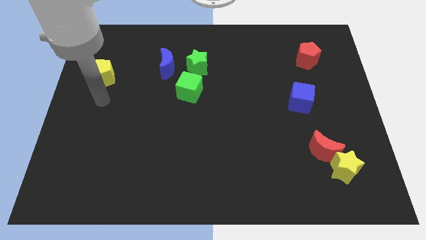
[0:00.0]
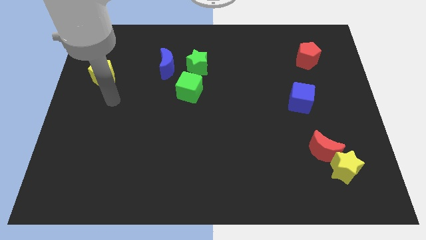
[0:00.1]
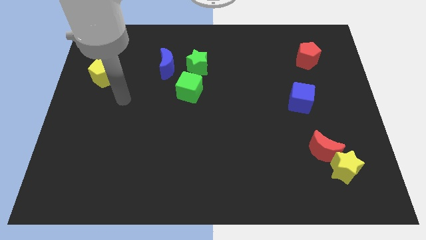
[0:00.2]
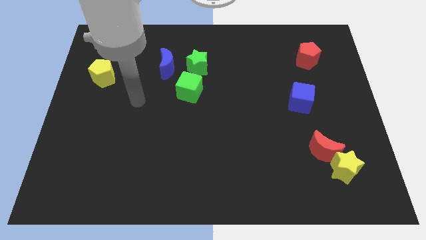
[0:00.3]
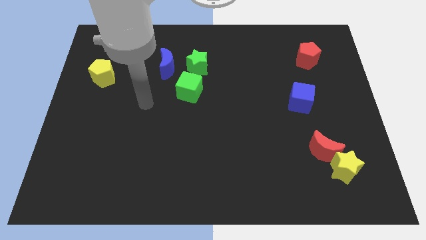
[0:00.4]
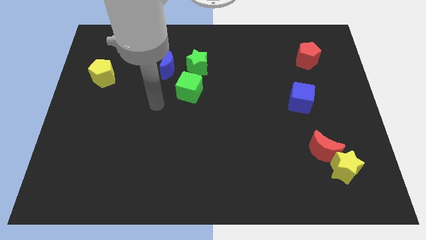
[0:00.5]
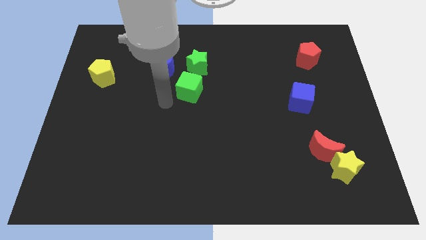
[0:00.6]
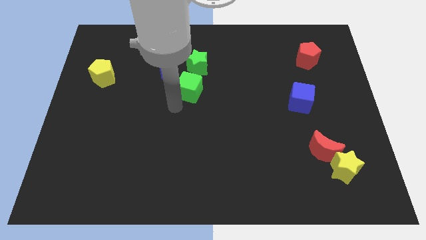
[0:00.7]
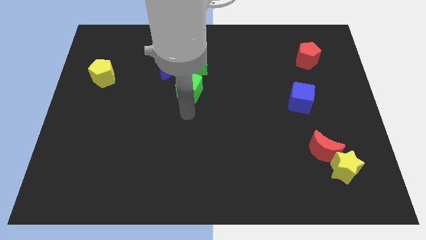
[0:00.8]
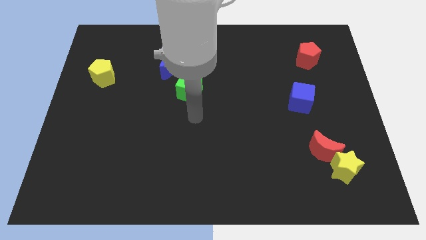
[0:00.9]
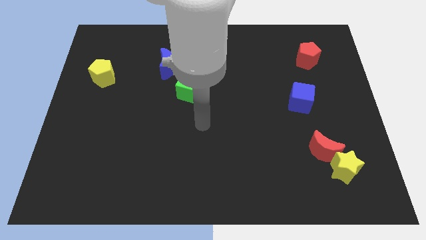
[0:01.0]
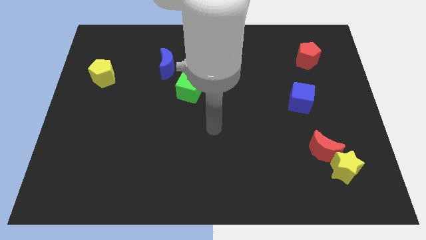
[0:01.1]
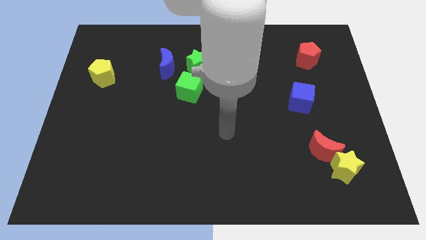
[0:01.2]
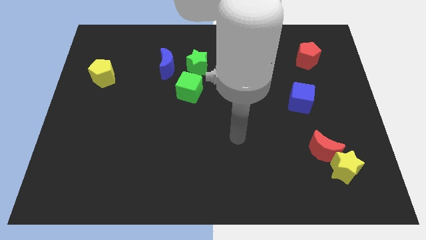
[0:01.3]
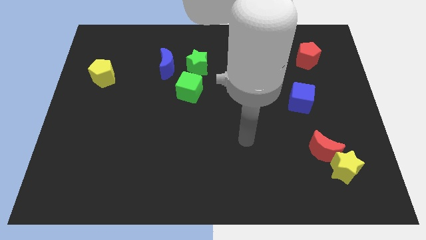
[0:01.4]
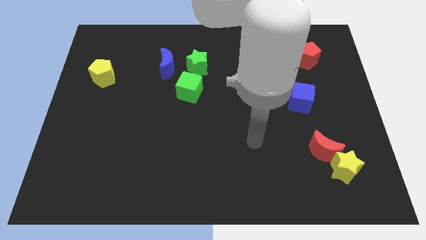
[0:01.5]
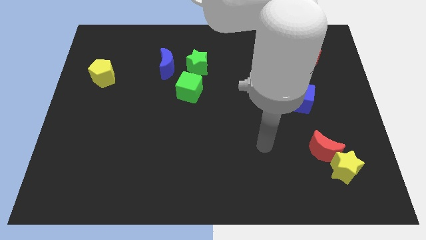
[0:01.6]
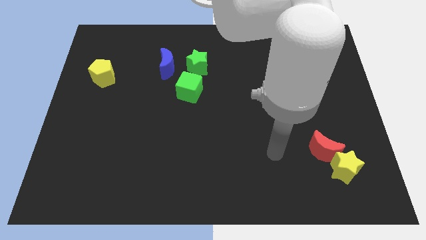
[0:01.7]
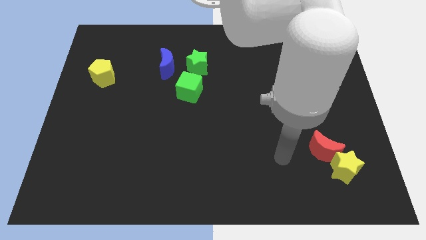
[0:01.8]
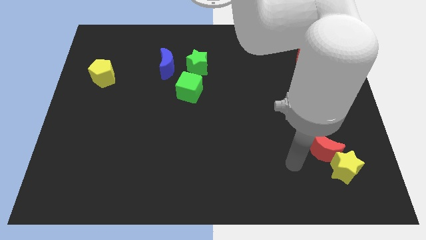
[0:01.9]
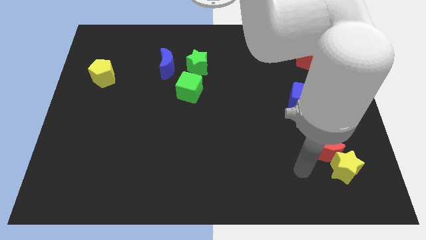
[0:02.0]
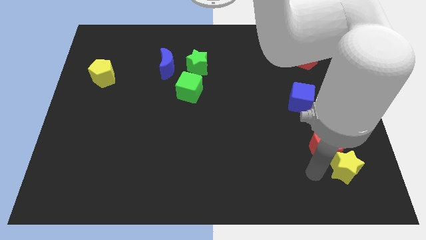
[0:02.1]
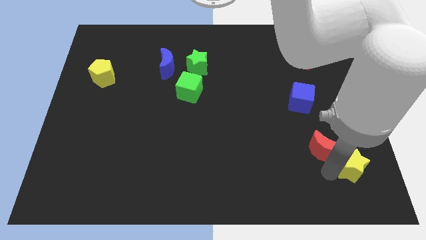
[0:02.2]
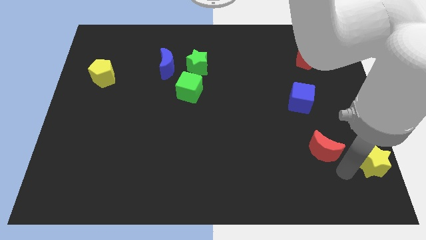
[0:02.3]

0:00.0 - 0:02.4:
pull the red moon apart from the yellow star

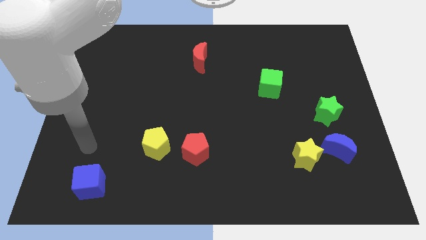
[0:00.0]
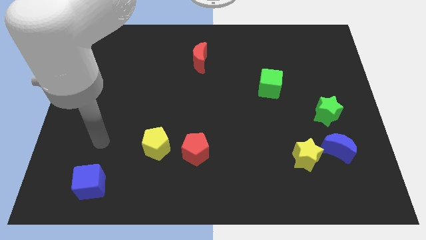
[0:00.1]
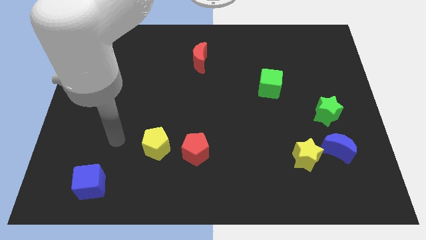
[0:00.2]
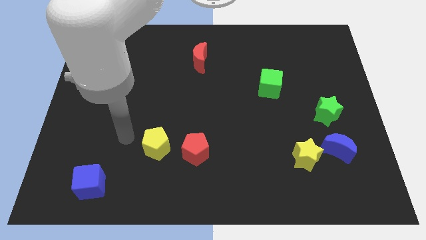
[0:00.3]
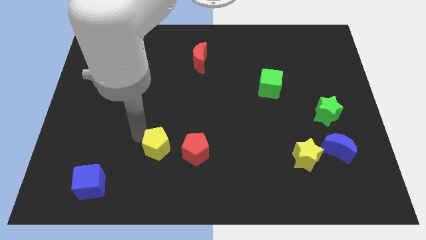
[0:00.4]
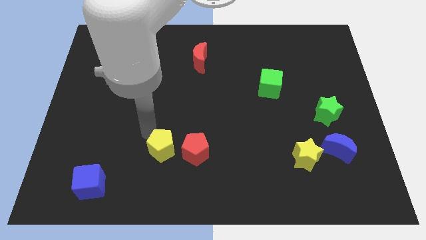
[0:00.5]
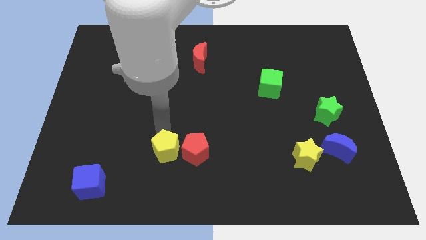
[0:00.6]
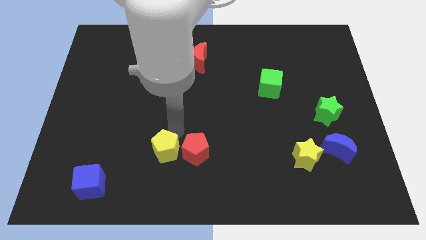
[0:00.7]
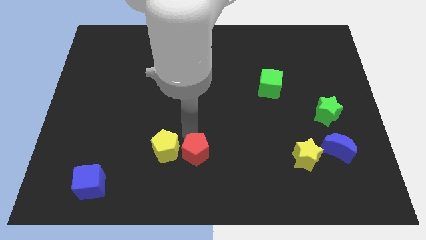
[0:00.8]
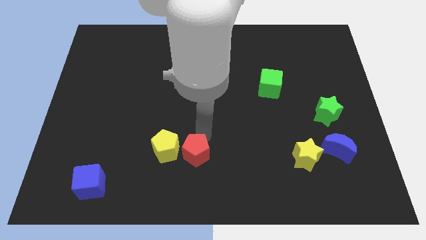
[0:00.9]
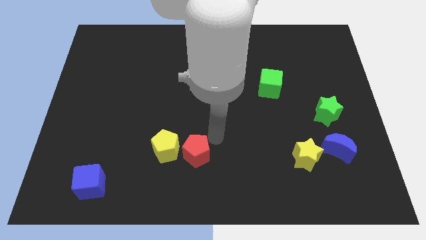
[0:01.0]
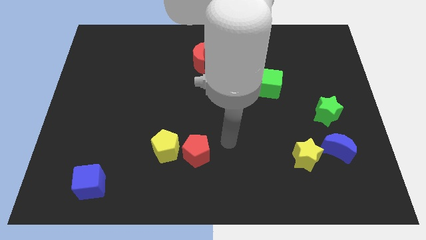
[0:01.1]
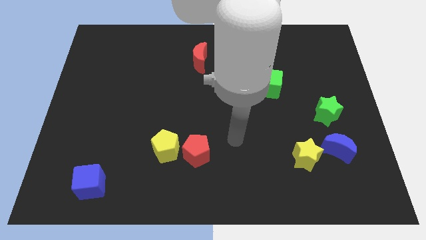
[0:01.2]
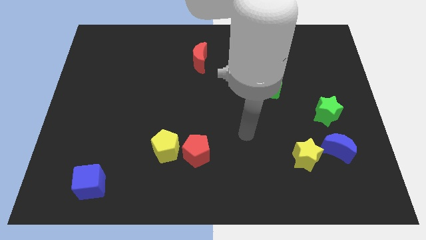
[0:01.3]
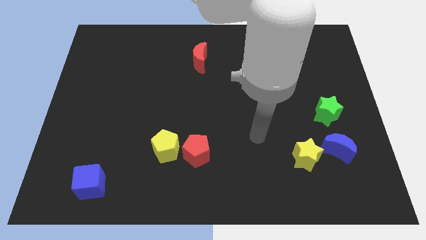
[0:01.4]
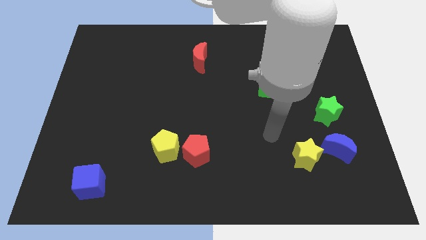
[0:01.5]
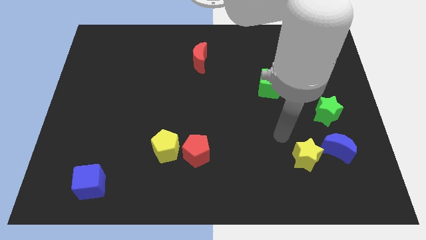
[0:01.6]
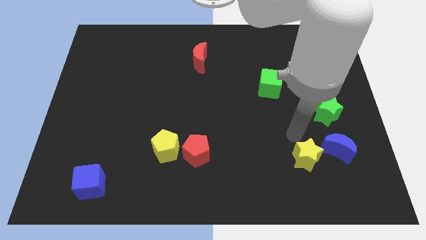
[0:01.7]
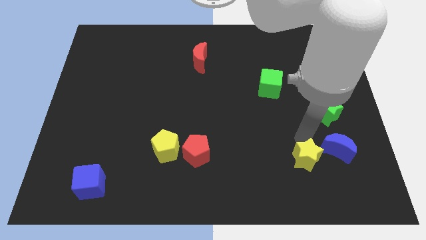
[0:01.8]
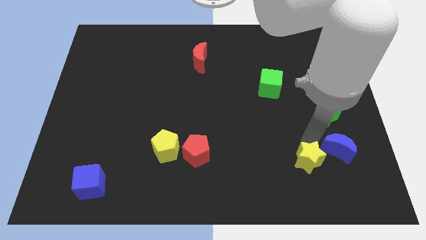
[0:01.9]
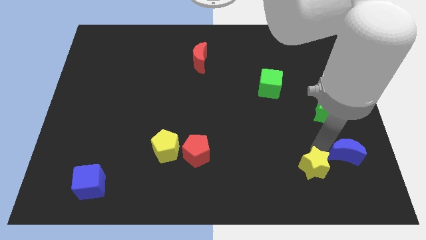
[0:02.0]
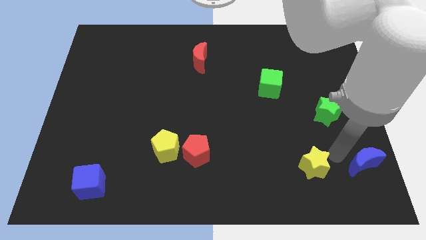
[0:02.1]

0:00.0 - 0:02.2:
separate the yellow star from the blue moon

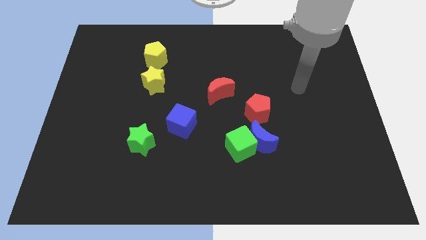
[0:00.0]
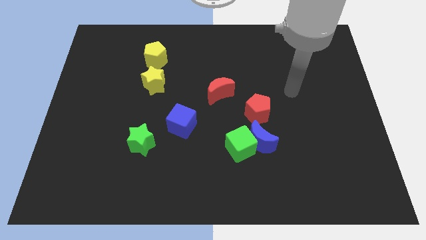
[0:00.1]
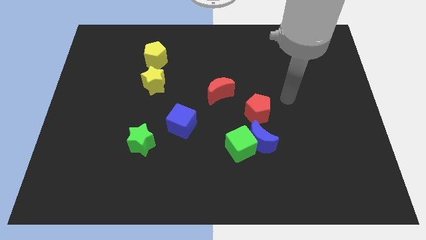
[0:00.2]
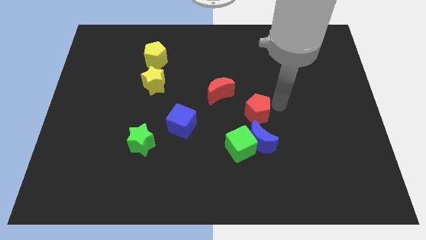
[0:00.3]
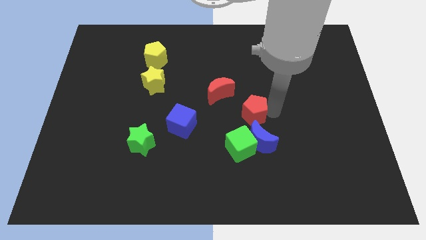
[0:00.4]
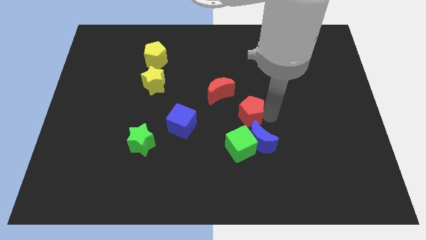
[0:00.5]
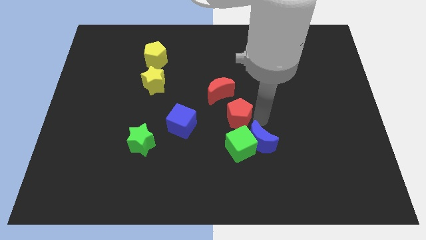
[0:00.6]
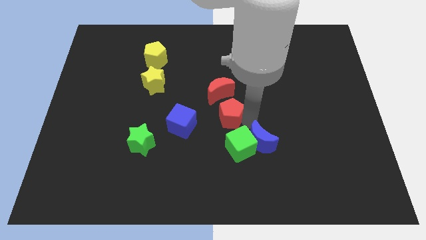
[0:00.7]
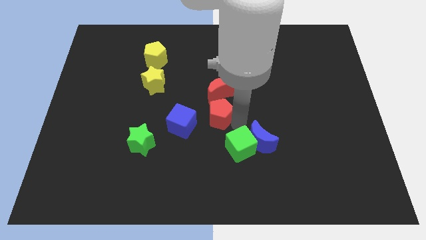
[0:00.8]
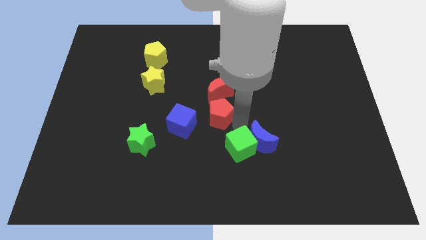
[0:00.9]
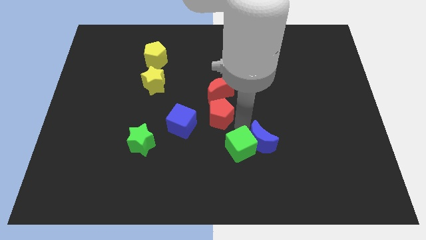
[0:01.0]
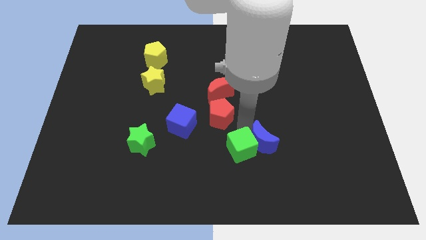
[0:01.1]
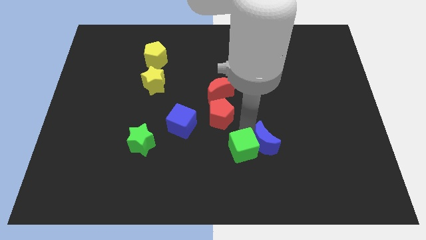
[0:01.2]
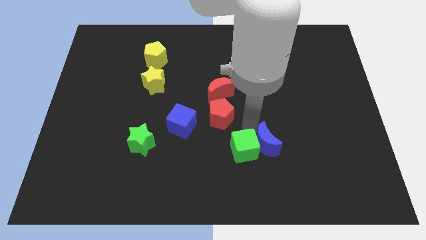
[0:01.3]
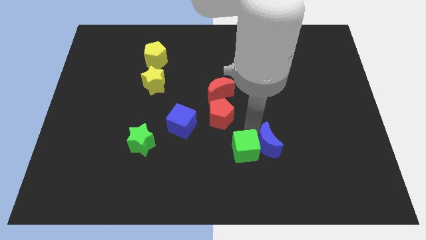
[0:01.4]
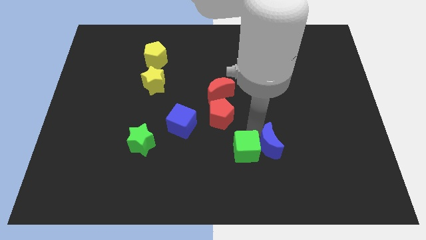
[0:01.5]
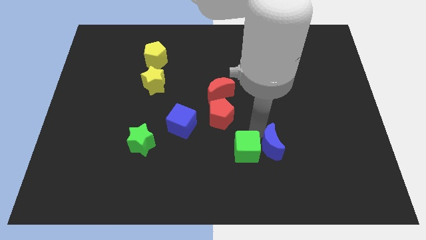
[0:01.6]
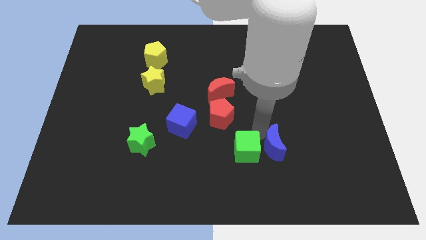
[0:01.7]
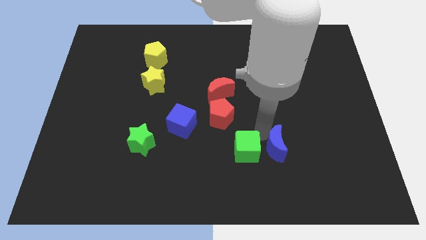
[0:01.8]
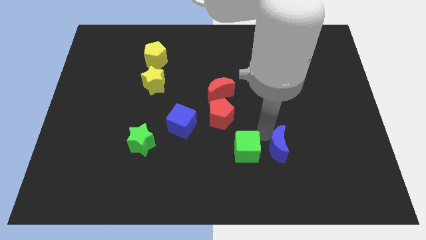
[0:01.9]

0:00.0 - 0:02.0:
separate the blue moon from the green cube and red pentagon

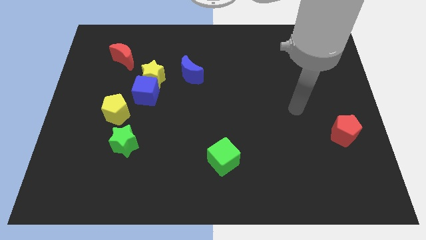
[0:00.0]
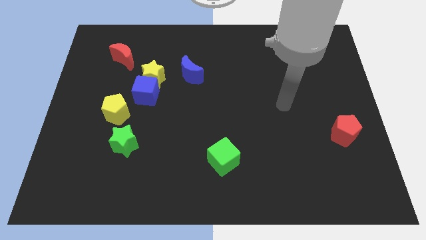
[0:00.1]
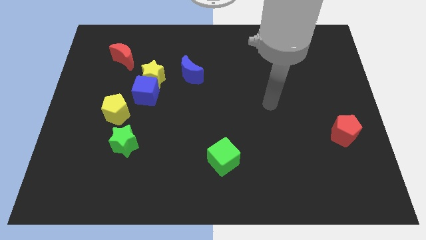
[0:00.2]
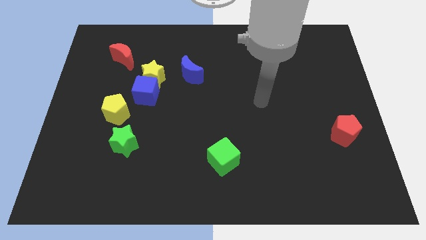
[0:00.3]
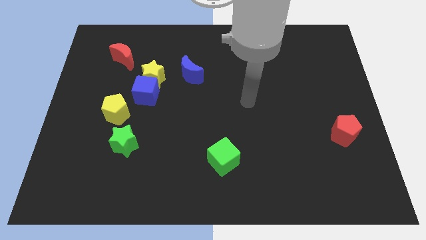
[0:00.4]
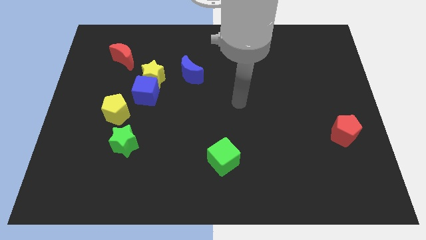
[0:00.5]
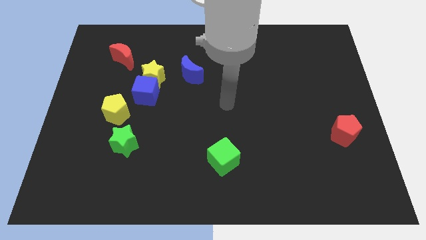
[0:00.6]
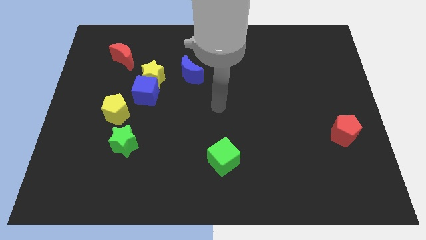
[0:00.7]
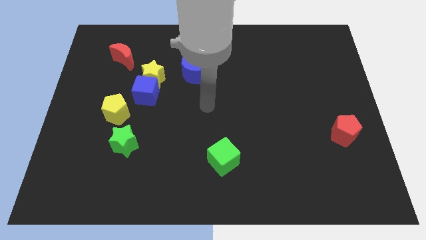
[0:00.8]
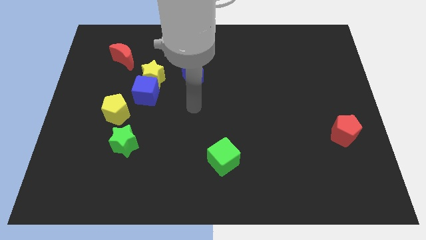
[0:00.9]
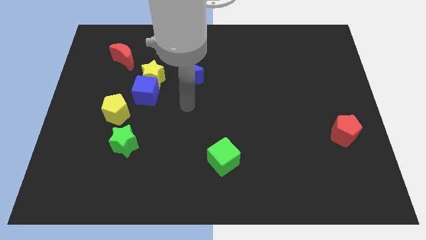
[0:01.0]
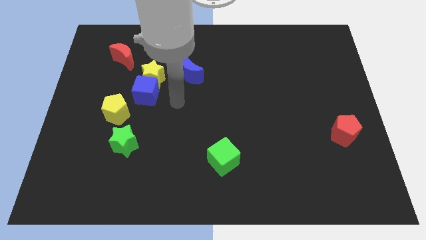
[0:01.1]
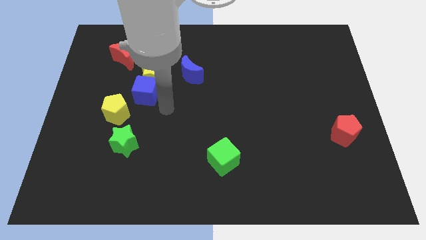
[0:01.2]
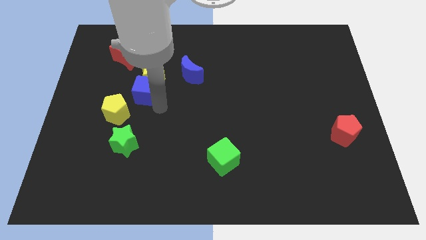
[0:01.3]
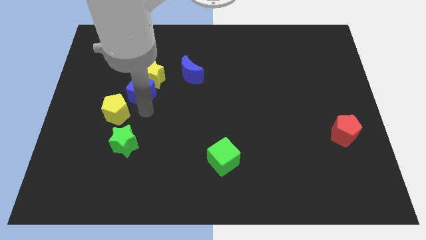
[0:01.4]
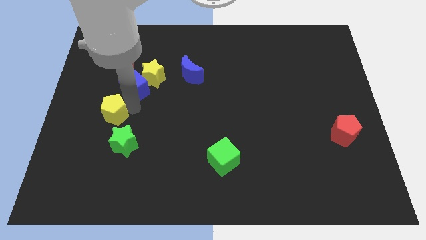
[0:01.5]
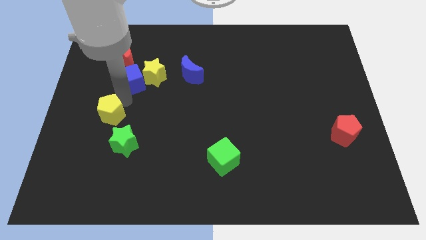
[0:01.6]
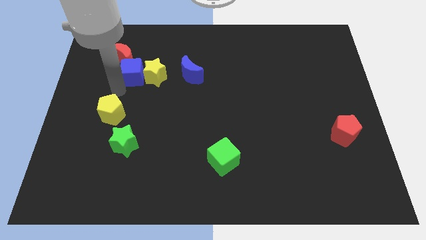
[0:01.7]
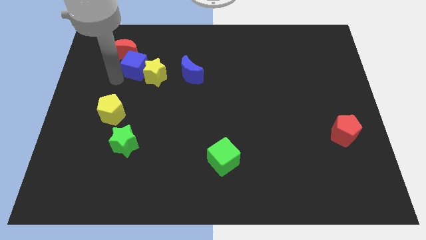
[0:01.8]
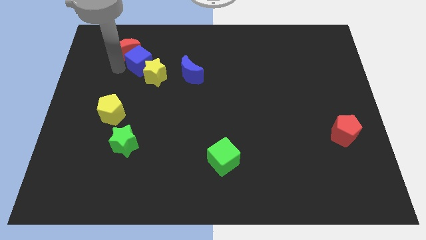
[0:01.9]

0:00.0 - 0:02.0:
move the blue cube away from the yellow star and yellow pentagon

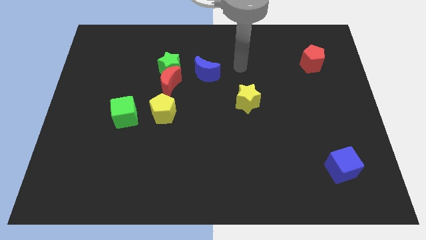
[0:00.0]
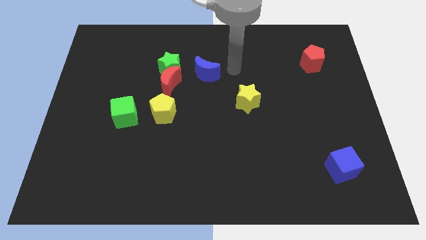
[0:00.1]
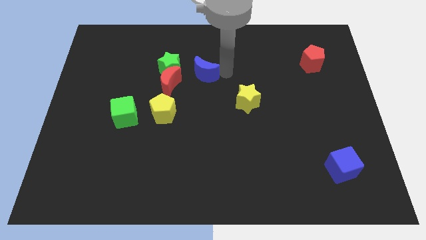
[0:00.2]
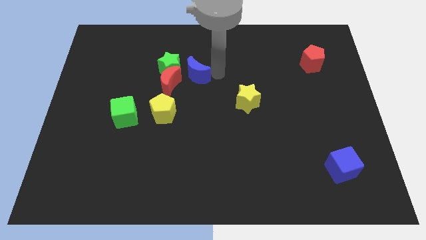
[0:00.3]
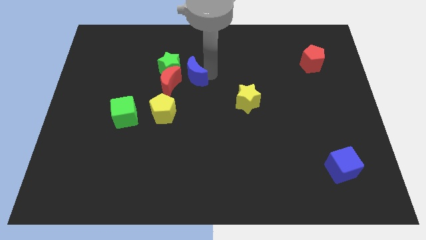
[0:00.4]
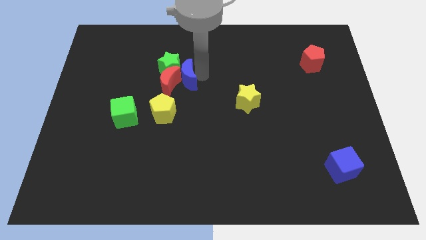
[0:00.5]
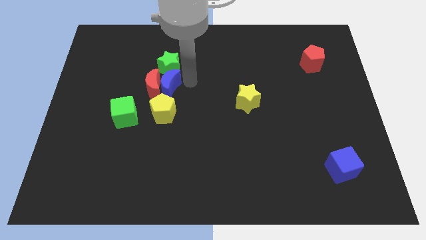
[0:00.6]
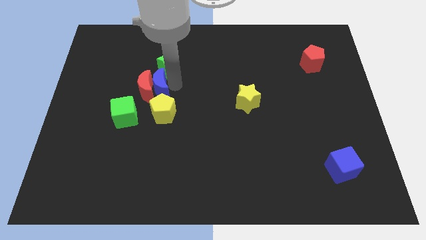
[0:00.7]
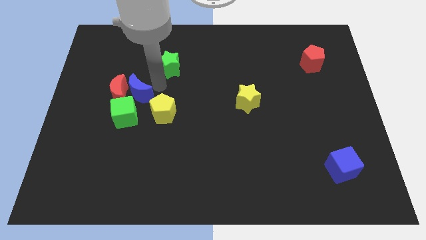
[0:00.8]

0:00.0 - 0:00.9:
pull the green star apart from the red moon and blue moon
